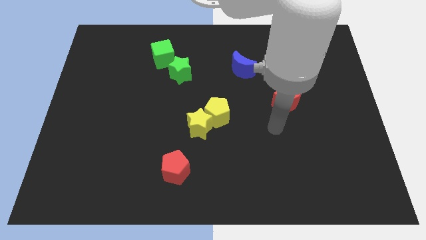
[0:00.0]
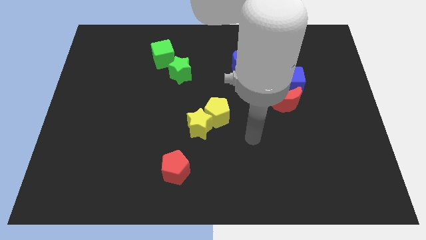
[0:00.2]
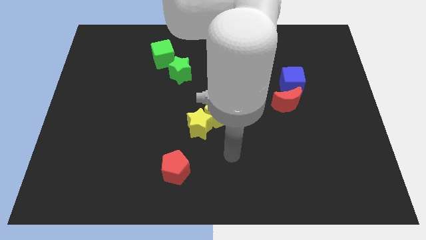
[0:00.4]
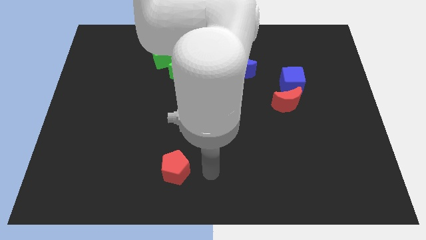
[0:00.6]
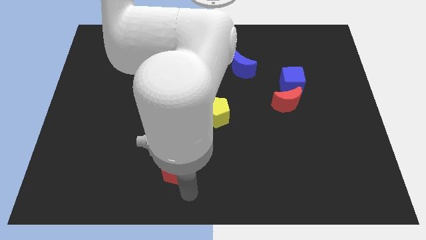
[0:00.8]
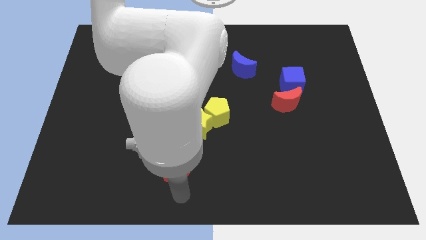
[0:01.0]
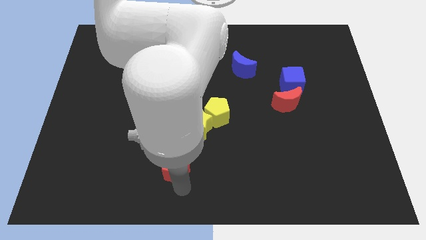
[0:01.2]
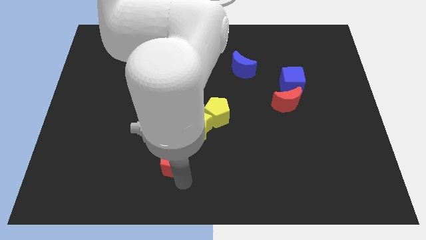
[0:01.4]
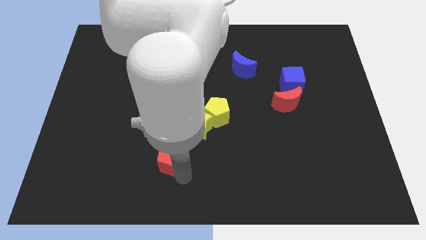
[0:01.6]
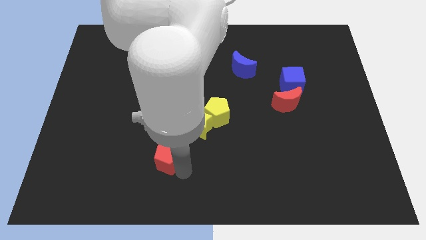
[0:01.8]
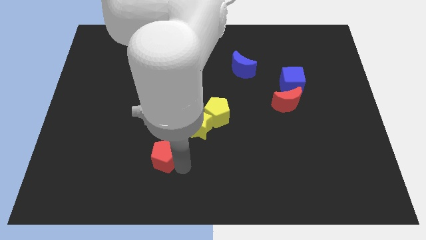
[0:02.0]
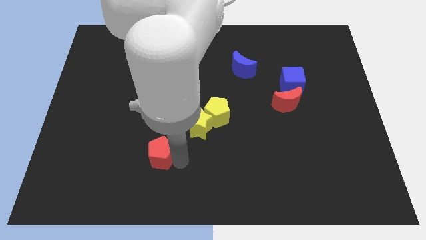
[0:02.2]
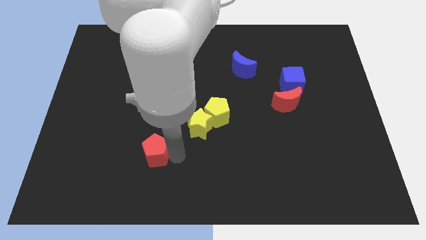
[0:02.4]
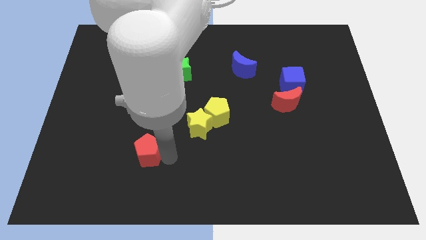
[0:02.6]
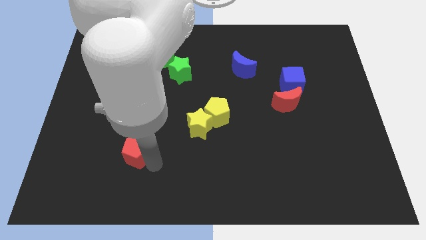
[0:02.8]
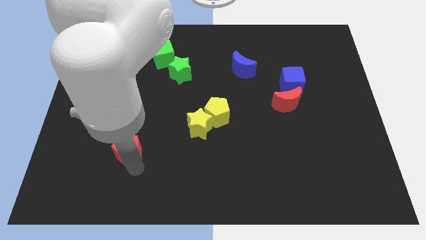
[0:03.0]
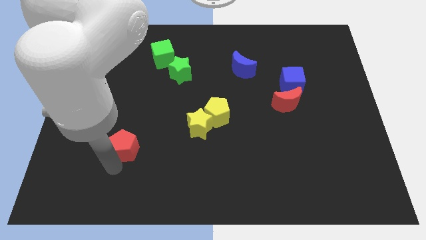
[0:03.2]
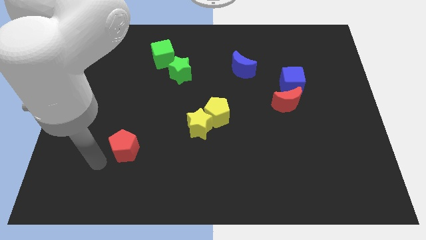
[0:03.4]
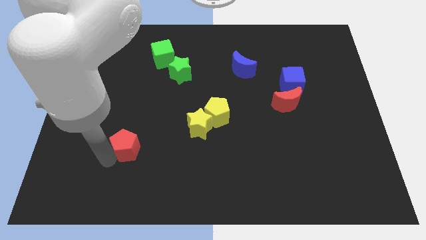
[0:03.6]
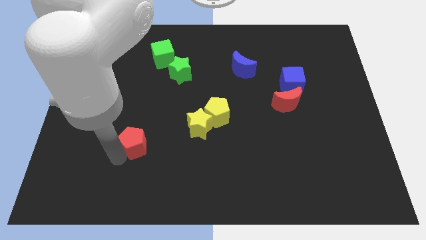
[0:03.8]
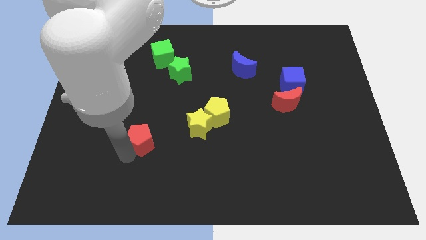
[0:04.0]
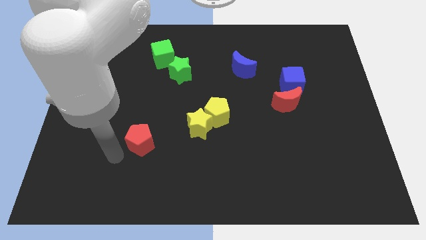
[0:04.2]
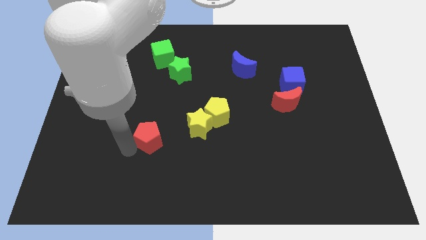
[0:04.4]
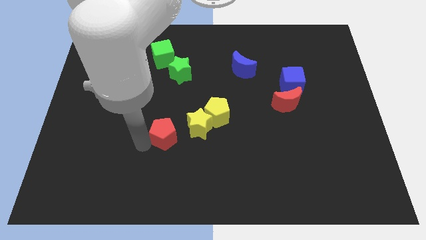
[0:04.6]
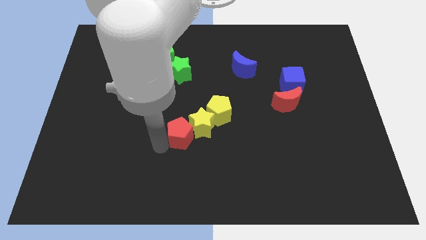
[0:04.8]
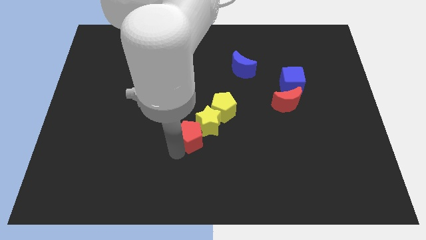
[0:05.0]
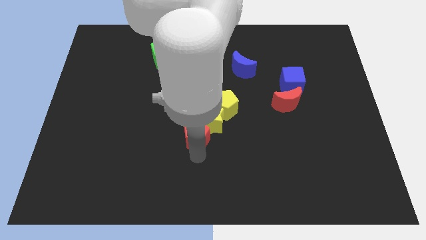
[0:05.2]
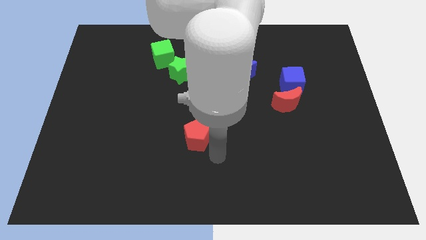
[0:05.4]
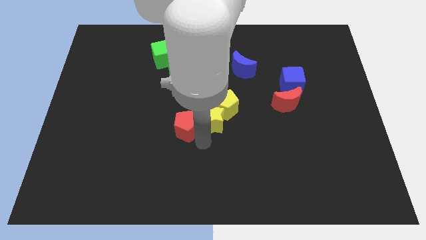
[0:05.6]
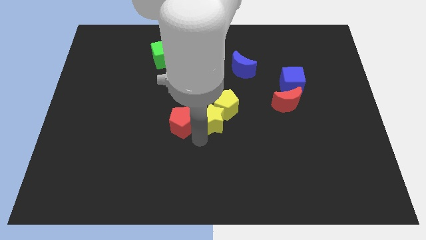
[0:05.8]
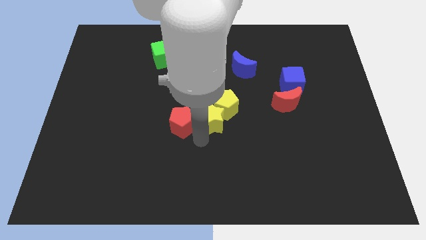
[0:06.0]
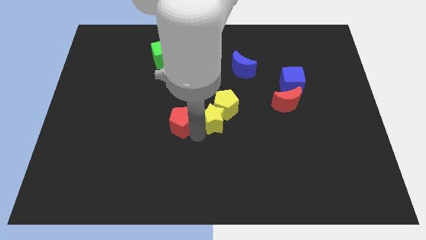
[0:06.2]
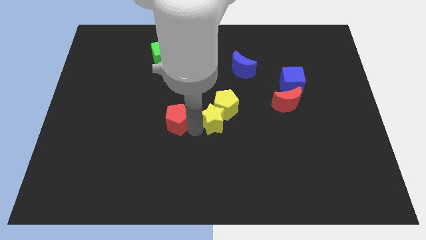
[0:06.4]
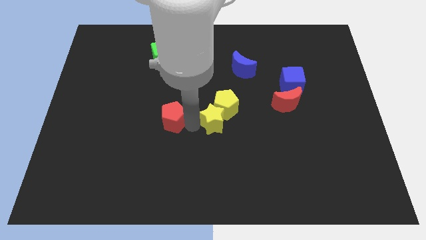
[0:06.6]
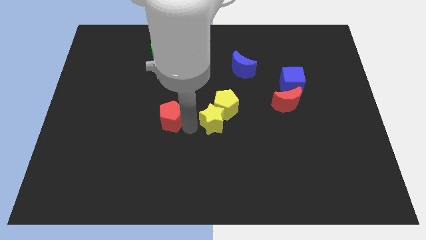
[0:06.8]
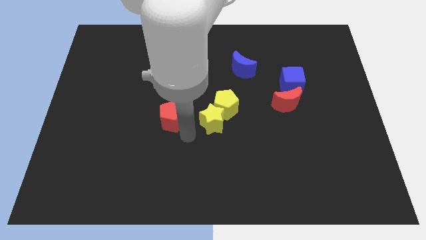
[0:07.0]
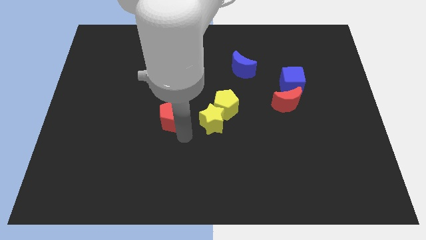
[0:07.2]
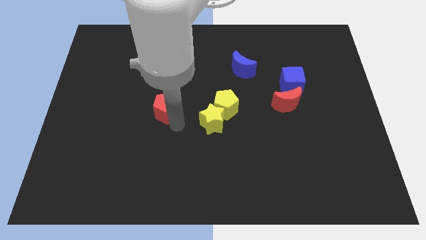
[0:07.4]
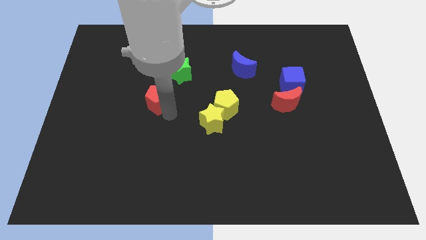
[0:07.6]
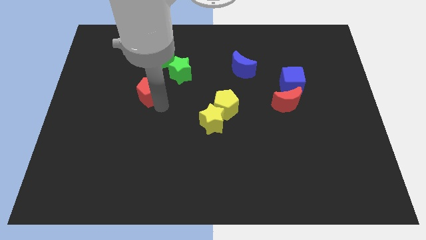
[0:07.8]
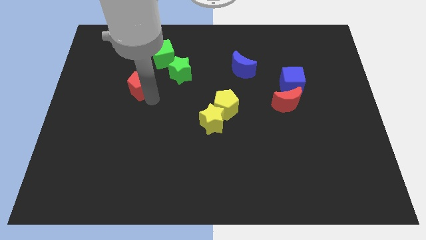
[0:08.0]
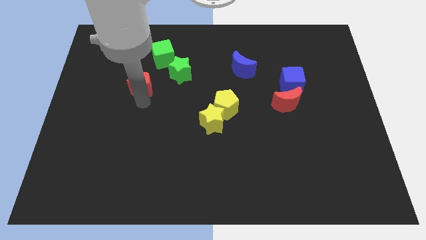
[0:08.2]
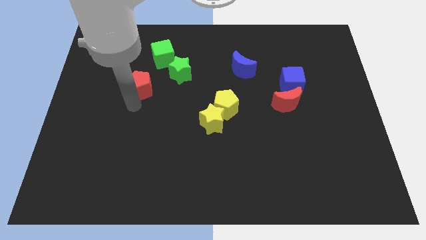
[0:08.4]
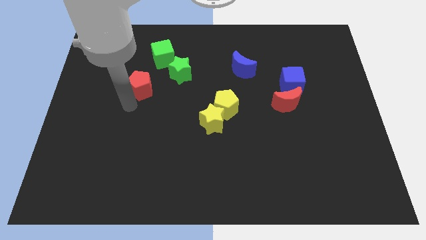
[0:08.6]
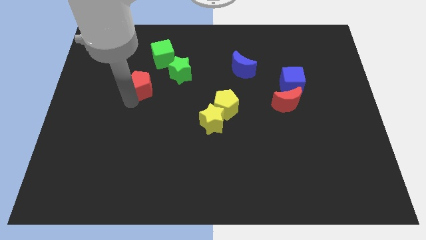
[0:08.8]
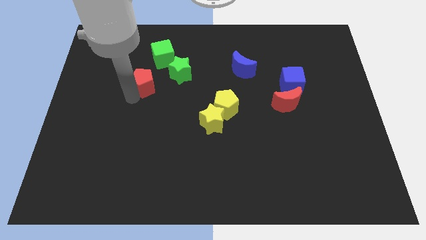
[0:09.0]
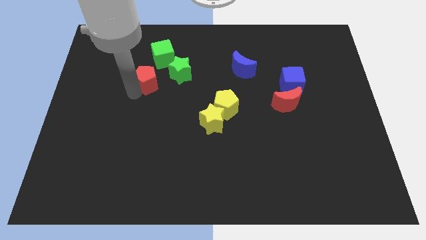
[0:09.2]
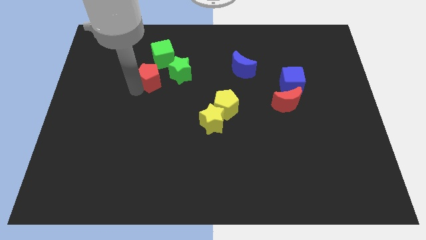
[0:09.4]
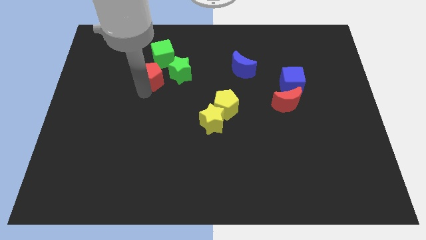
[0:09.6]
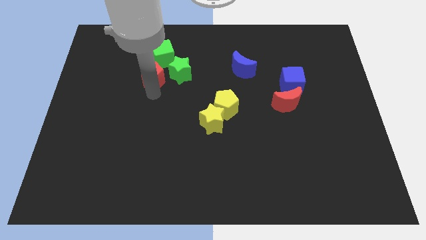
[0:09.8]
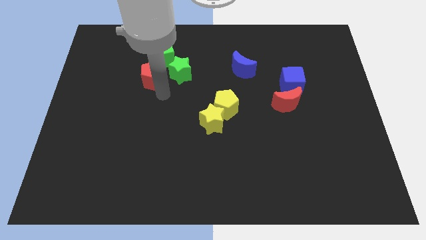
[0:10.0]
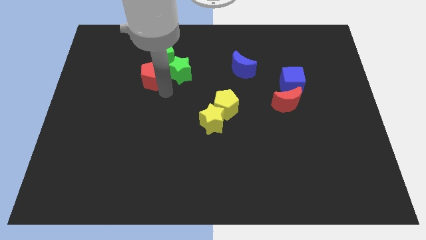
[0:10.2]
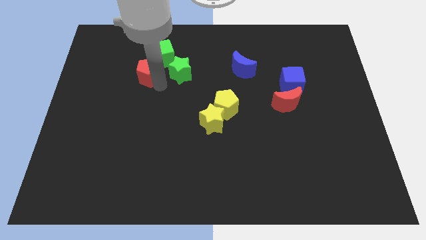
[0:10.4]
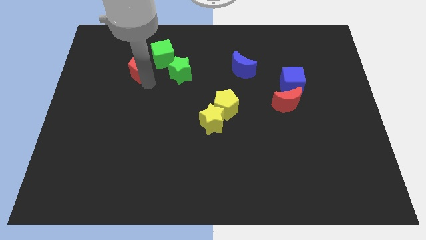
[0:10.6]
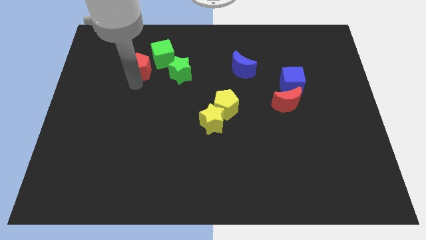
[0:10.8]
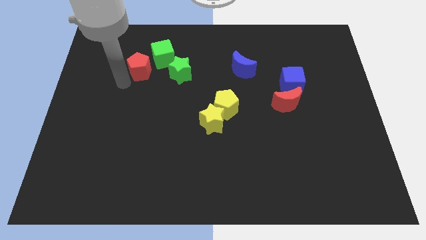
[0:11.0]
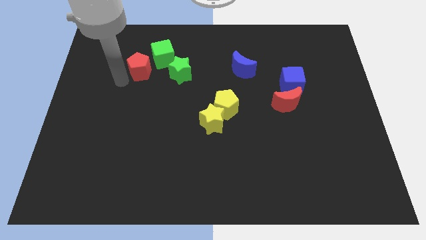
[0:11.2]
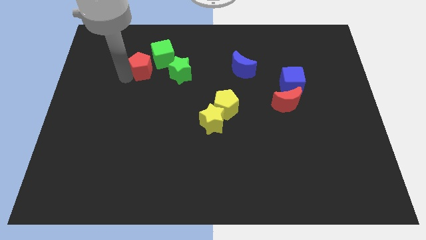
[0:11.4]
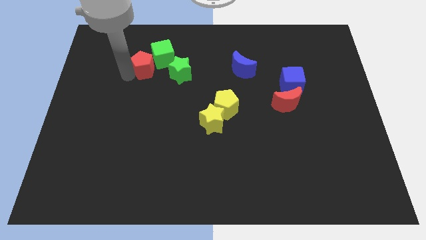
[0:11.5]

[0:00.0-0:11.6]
put the red pentagon towards the green cube

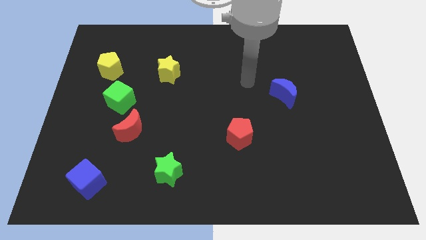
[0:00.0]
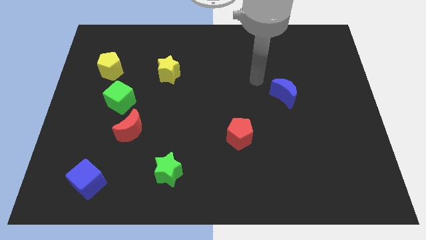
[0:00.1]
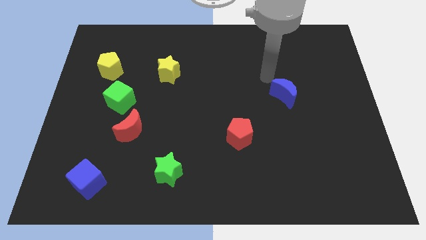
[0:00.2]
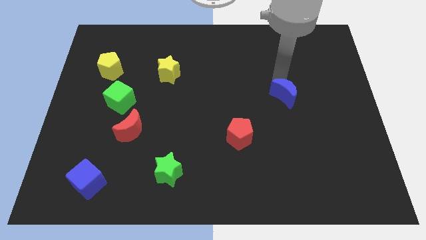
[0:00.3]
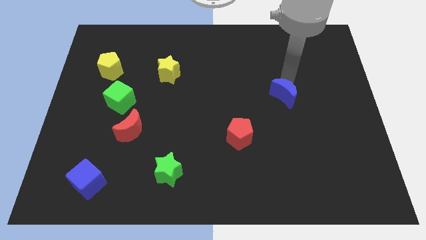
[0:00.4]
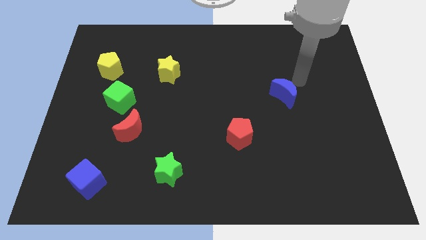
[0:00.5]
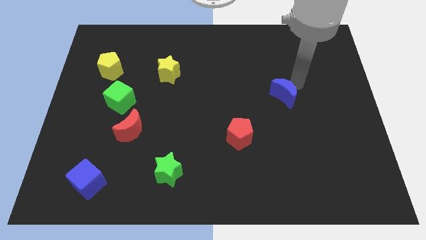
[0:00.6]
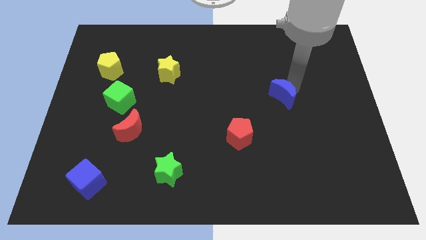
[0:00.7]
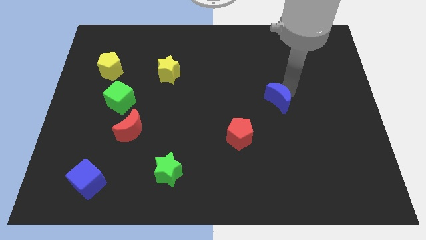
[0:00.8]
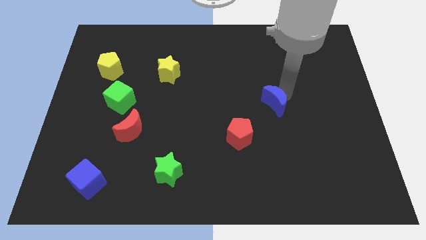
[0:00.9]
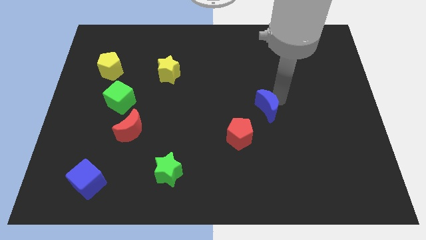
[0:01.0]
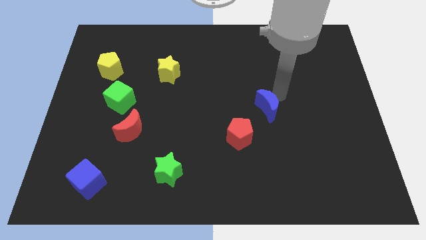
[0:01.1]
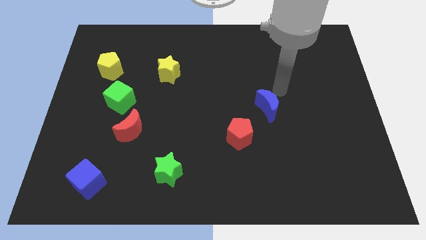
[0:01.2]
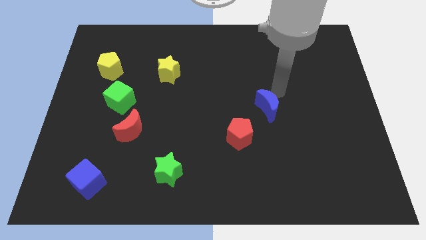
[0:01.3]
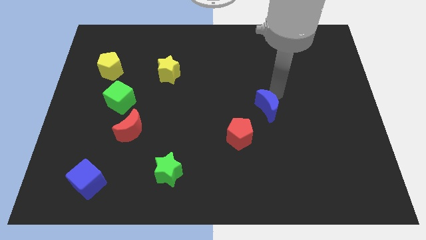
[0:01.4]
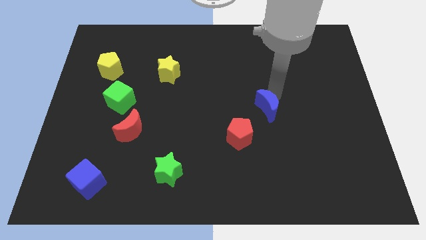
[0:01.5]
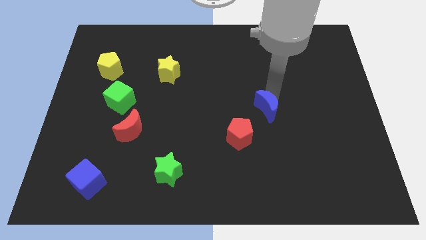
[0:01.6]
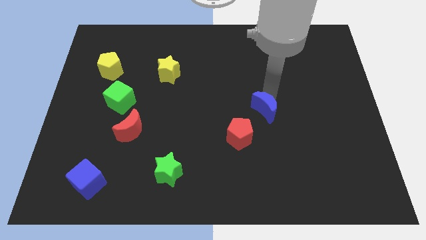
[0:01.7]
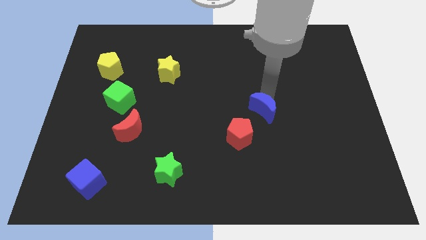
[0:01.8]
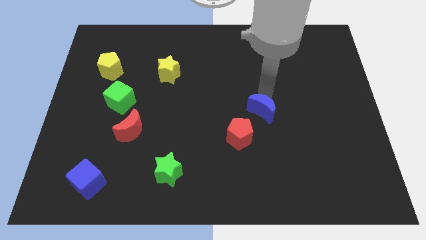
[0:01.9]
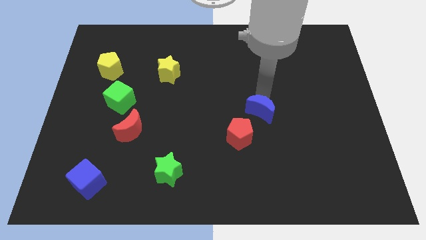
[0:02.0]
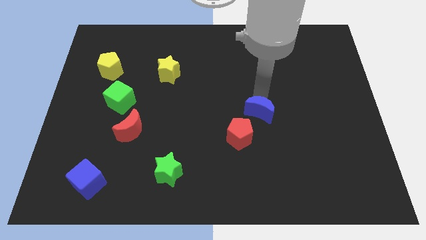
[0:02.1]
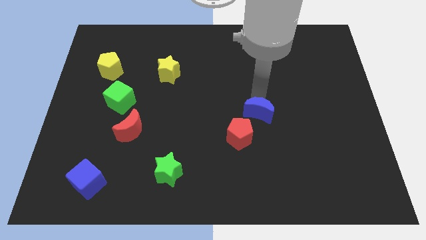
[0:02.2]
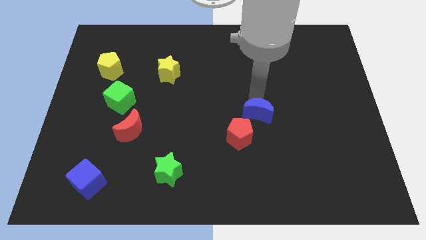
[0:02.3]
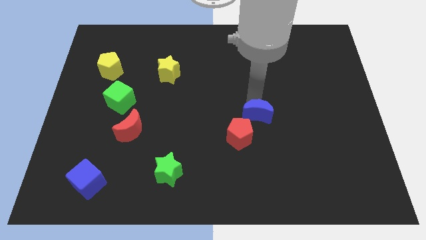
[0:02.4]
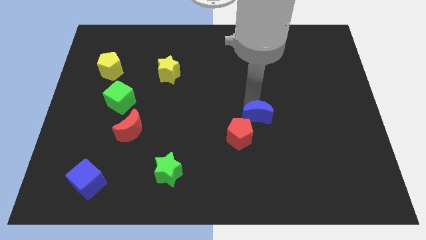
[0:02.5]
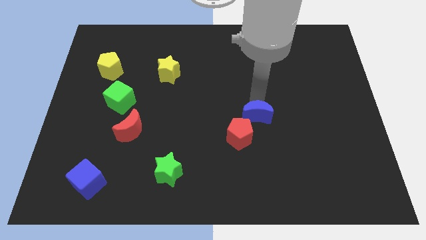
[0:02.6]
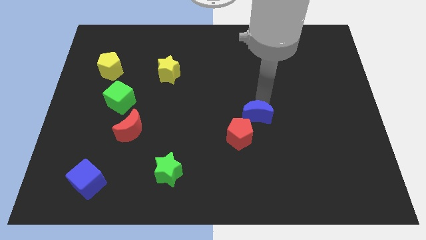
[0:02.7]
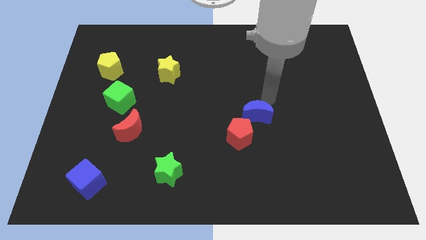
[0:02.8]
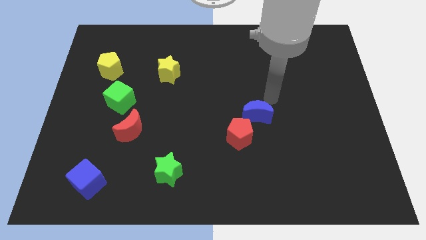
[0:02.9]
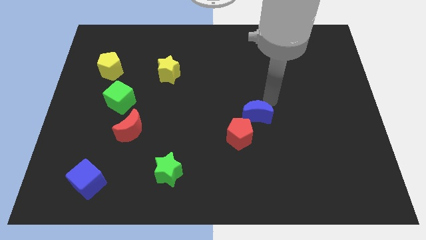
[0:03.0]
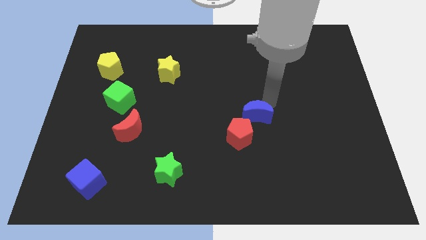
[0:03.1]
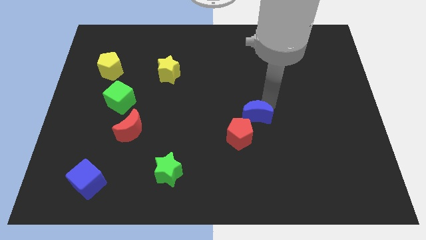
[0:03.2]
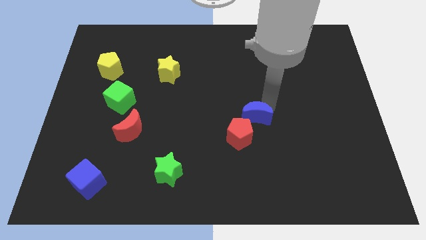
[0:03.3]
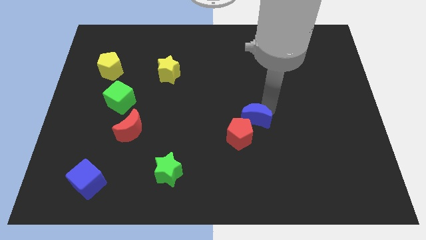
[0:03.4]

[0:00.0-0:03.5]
move the blue moon next to the red pentagon
